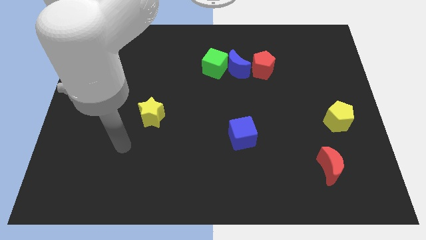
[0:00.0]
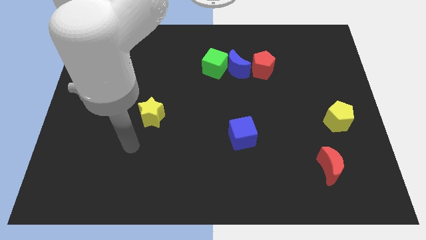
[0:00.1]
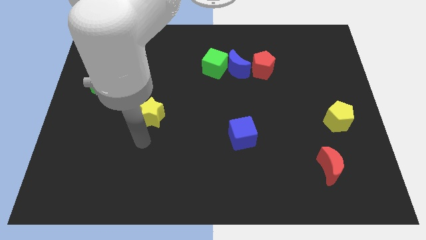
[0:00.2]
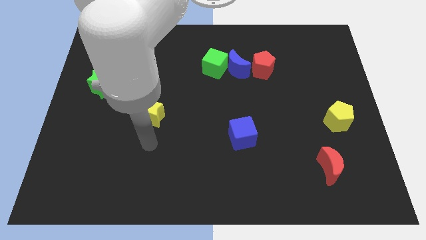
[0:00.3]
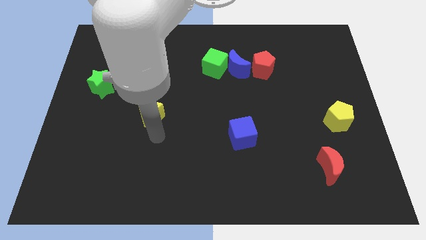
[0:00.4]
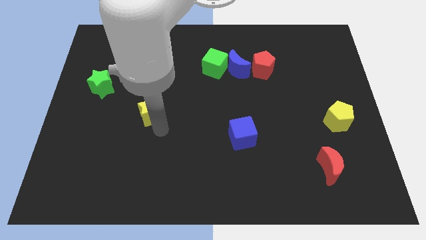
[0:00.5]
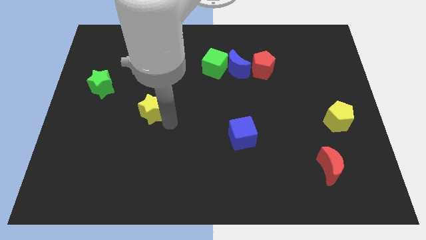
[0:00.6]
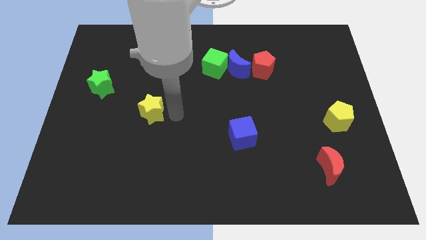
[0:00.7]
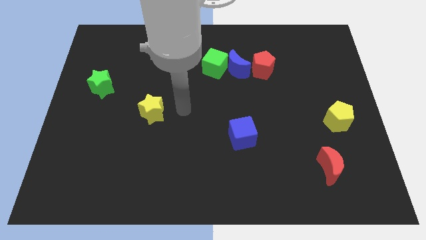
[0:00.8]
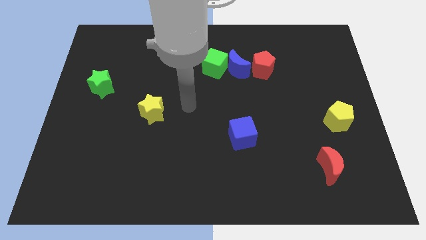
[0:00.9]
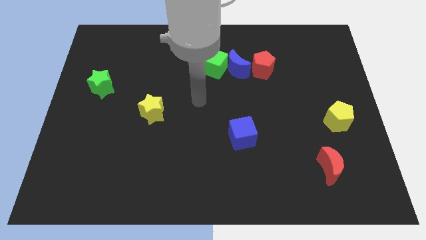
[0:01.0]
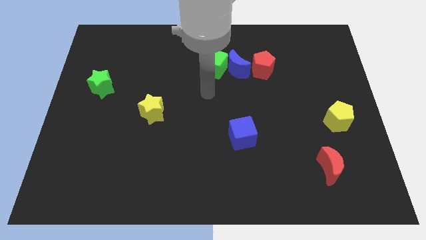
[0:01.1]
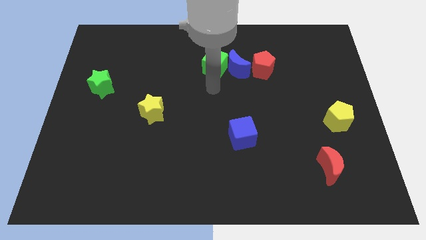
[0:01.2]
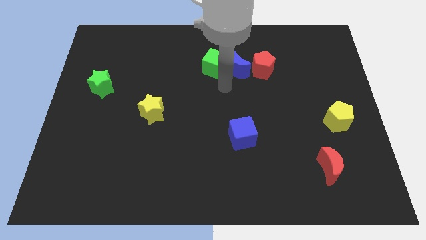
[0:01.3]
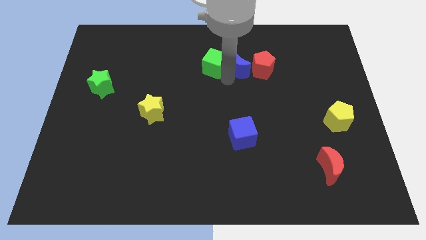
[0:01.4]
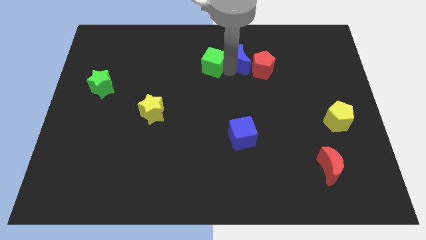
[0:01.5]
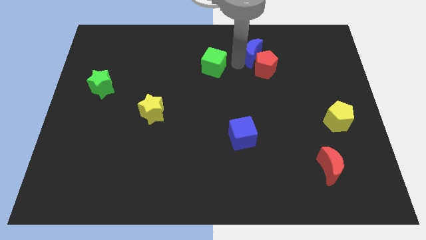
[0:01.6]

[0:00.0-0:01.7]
separate the green cube from the blue moon

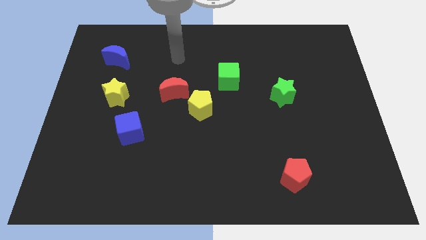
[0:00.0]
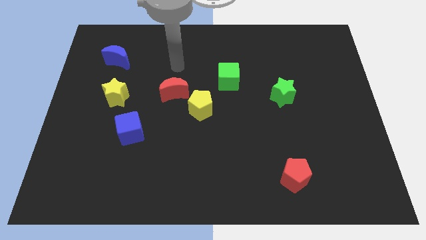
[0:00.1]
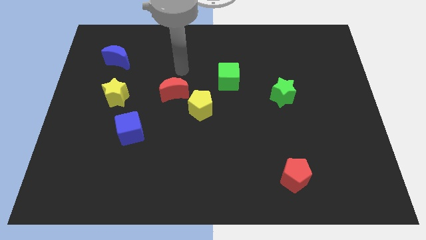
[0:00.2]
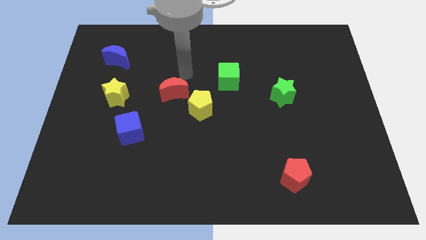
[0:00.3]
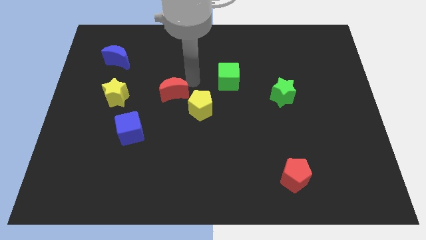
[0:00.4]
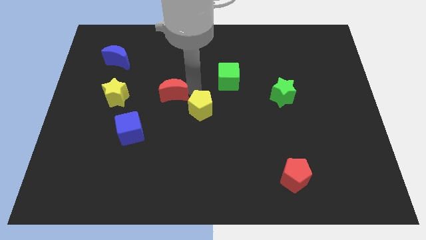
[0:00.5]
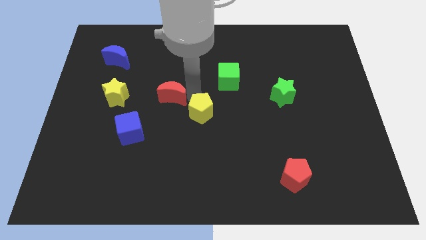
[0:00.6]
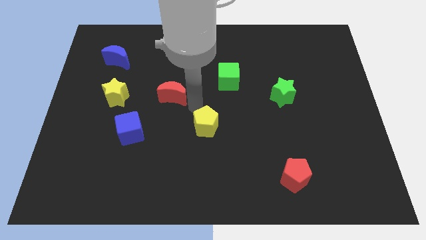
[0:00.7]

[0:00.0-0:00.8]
move the red moon away from the yellow pentagon

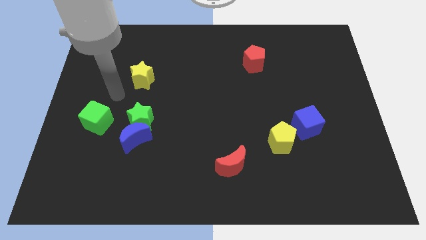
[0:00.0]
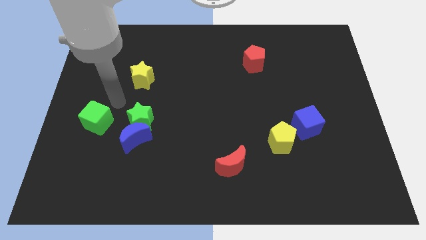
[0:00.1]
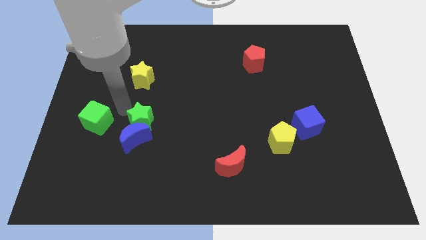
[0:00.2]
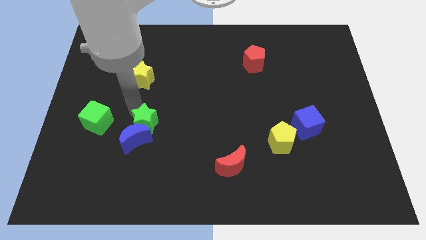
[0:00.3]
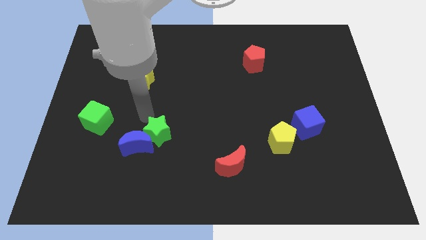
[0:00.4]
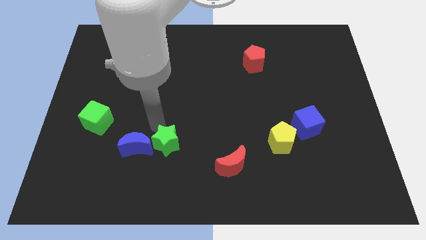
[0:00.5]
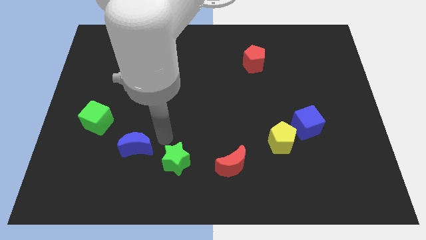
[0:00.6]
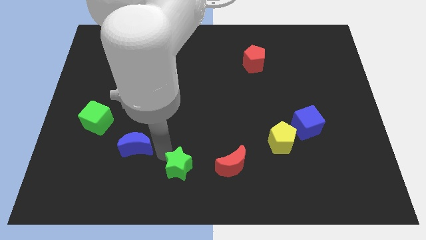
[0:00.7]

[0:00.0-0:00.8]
separate the blue moon from the green star

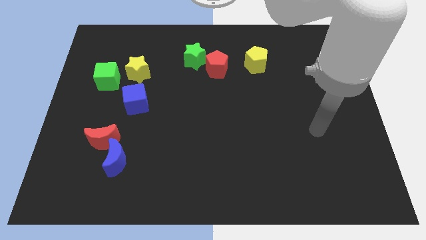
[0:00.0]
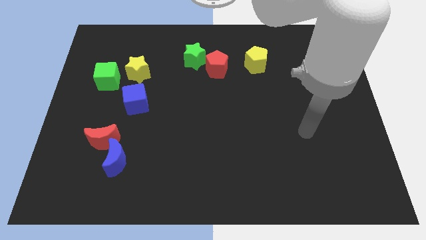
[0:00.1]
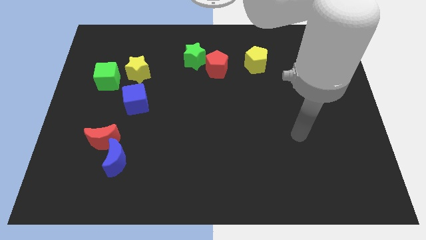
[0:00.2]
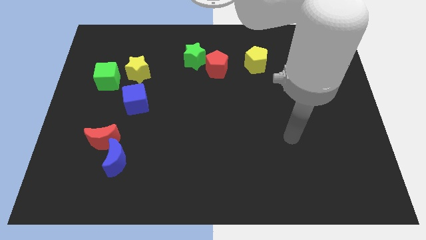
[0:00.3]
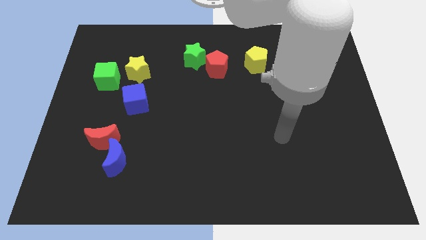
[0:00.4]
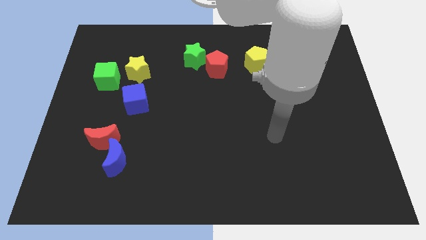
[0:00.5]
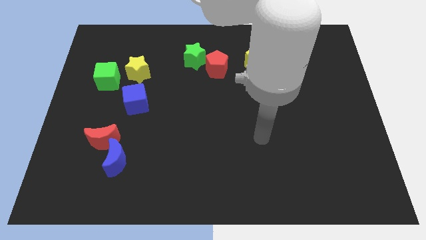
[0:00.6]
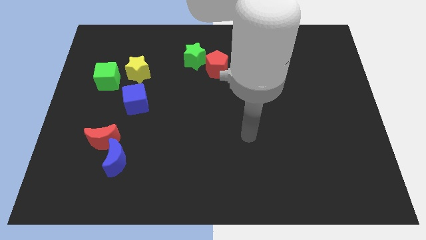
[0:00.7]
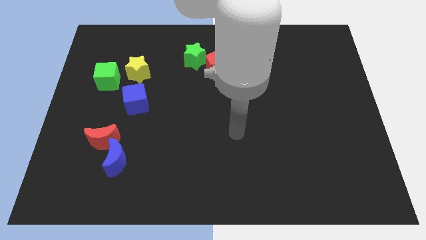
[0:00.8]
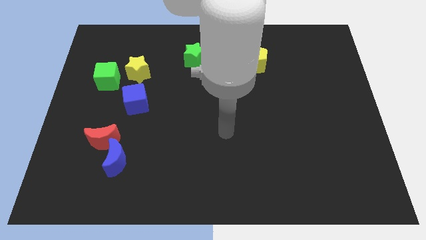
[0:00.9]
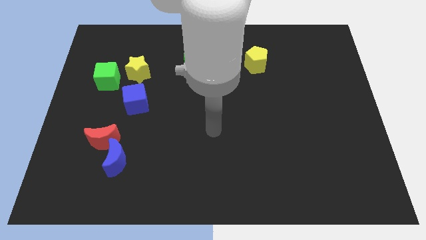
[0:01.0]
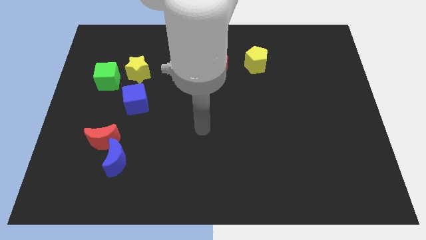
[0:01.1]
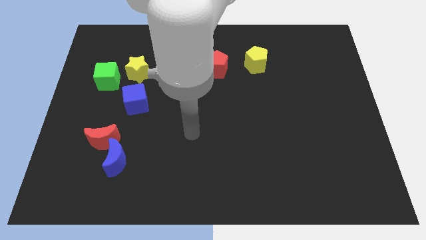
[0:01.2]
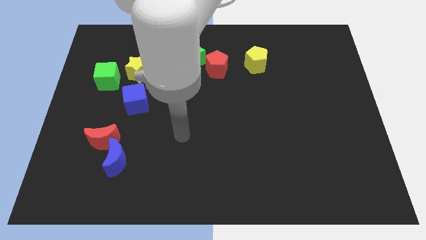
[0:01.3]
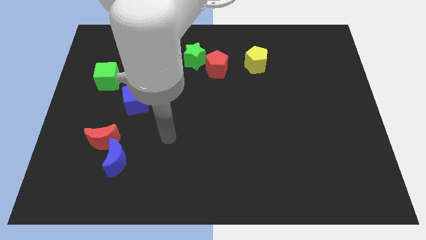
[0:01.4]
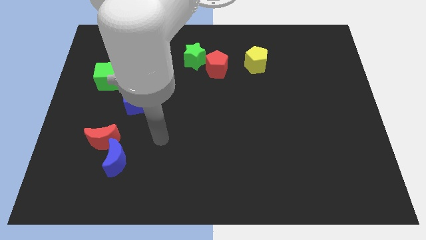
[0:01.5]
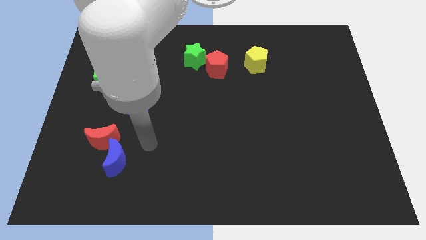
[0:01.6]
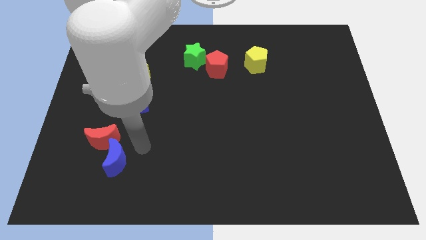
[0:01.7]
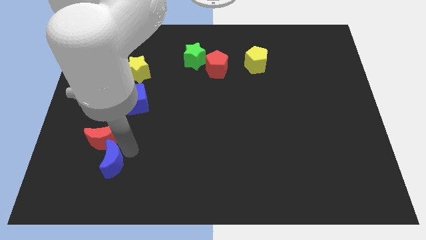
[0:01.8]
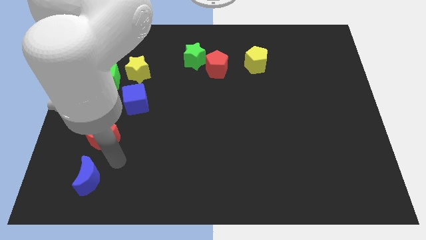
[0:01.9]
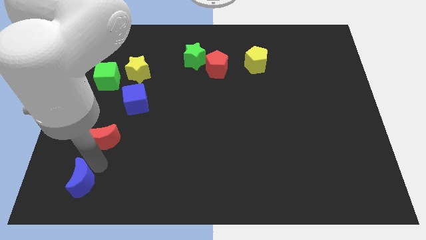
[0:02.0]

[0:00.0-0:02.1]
move the red moon away from the blue moon

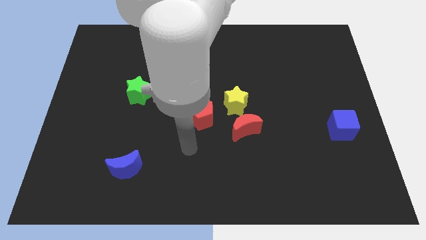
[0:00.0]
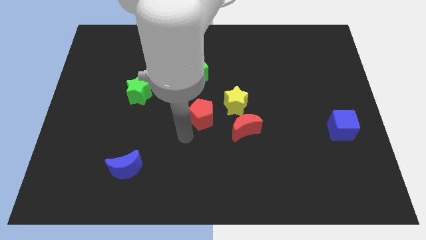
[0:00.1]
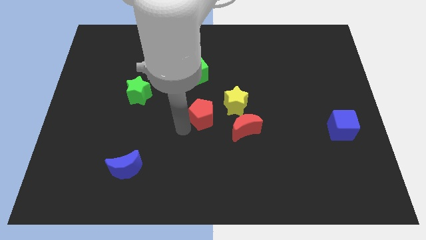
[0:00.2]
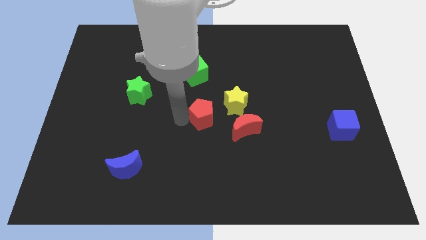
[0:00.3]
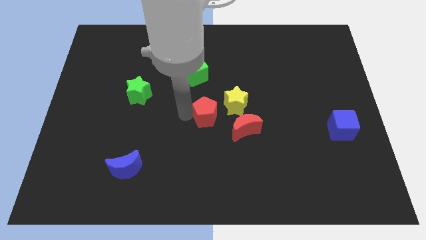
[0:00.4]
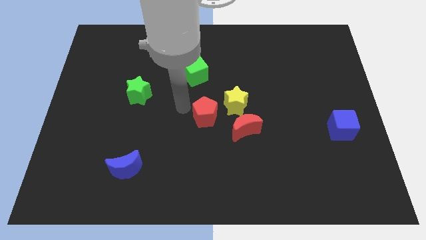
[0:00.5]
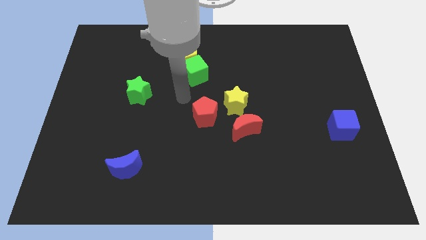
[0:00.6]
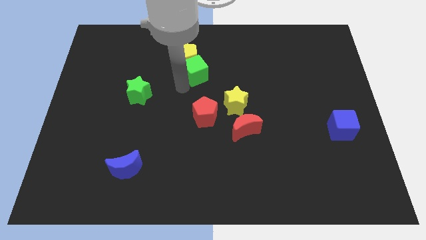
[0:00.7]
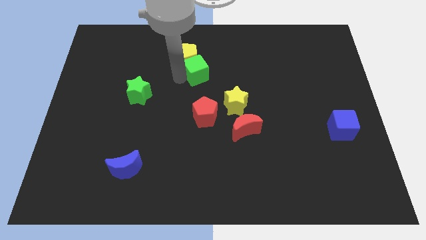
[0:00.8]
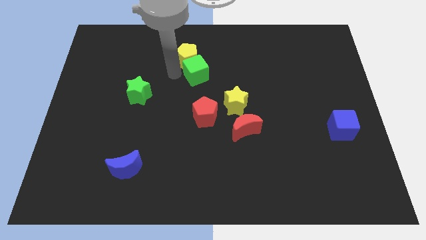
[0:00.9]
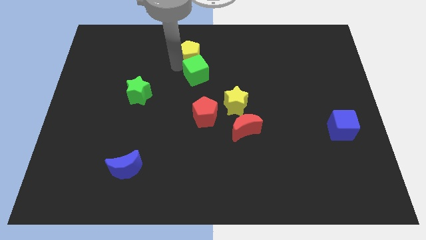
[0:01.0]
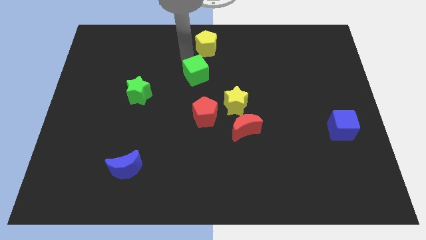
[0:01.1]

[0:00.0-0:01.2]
pull the green cube apart from the yellow pentagon

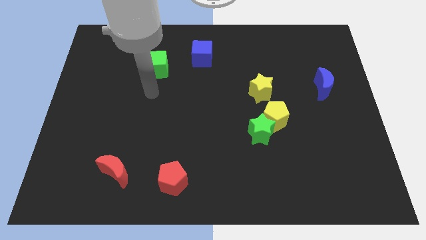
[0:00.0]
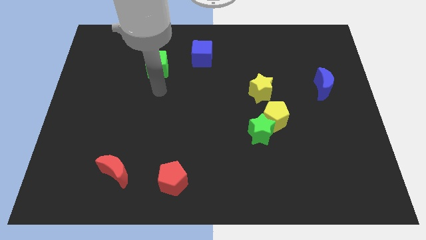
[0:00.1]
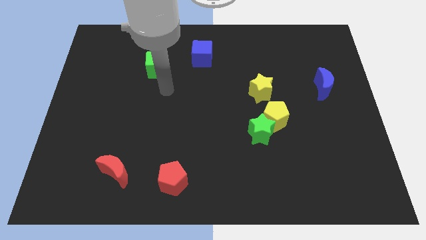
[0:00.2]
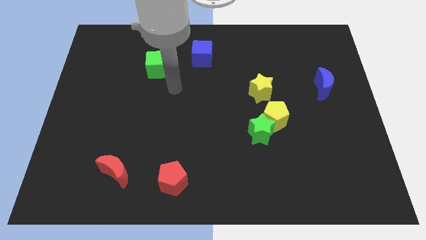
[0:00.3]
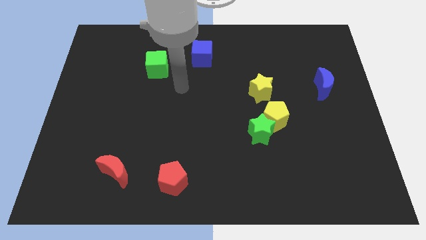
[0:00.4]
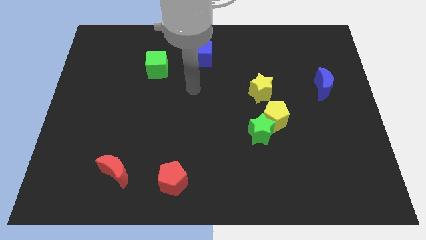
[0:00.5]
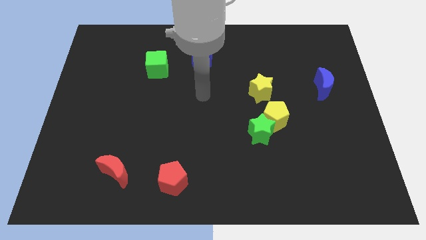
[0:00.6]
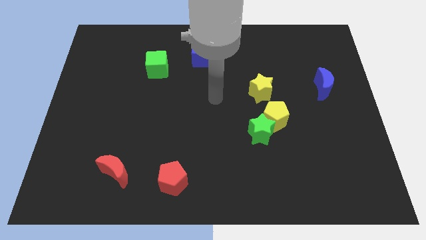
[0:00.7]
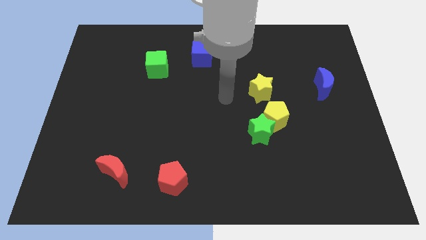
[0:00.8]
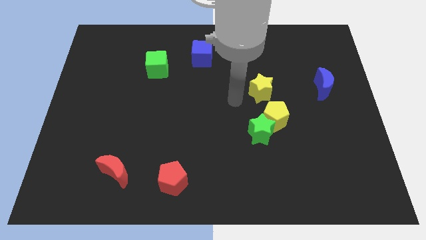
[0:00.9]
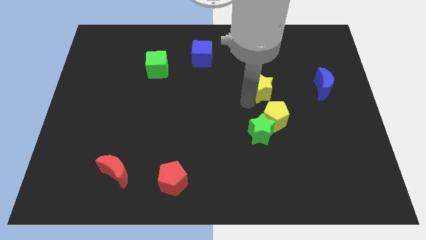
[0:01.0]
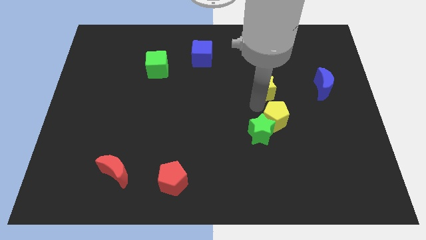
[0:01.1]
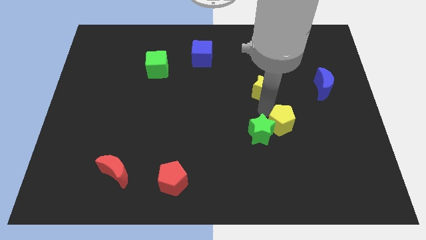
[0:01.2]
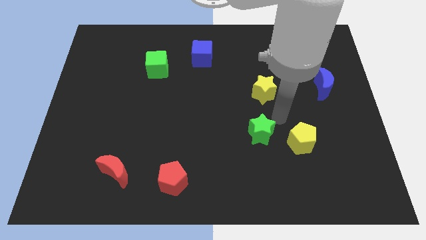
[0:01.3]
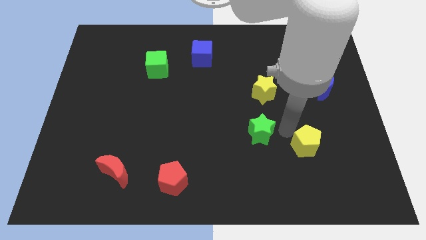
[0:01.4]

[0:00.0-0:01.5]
move the green star away from the yellow pentagon

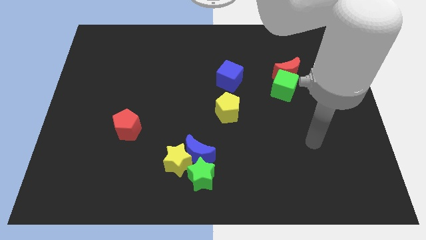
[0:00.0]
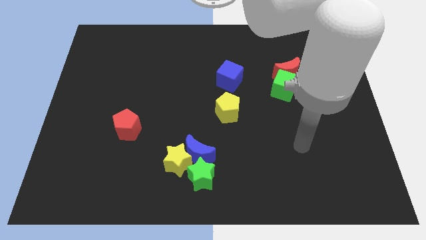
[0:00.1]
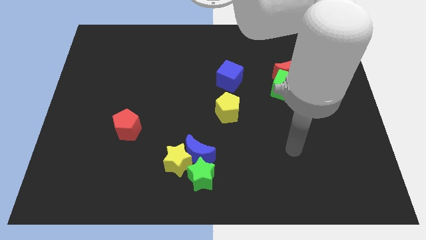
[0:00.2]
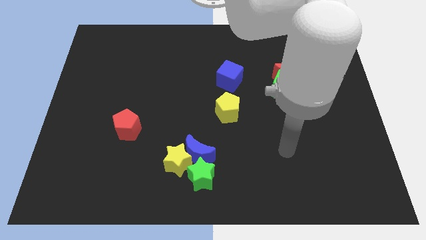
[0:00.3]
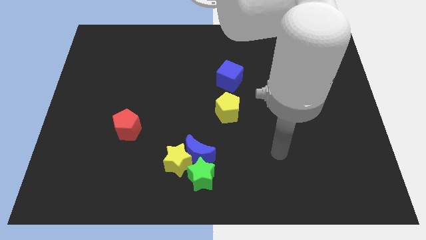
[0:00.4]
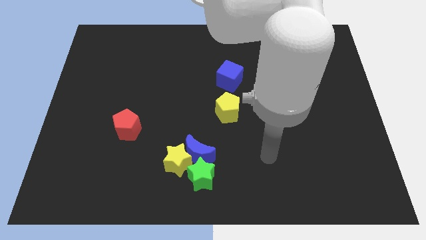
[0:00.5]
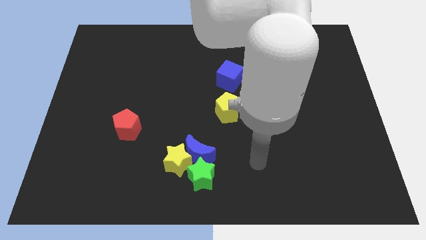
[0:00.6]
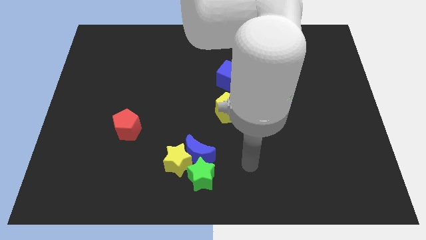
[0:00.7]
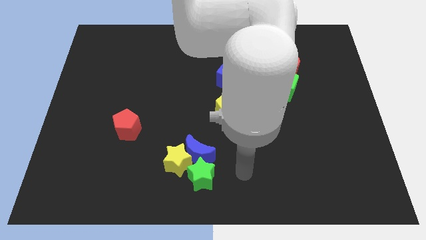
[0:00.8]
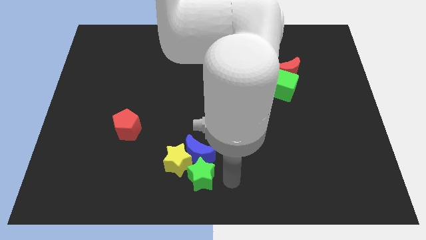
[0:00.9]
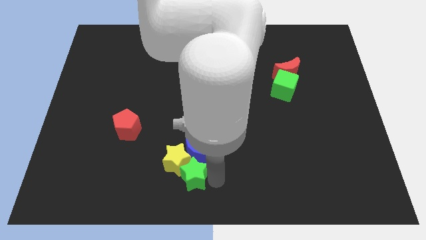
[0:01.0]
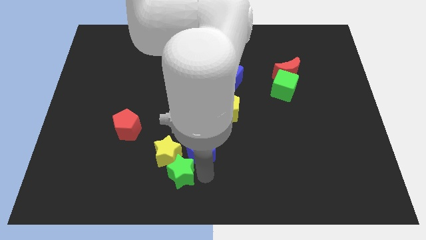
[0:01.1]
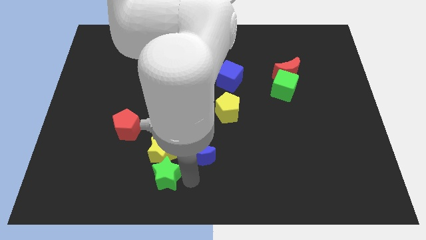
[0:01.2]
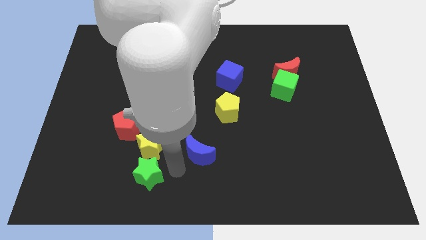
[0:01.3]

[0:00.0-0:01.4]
move the blue moon away from the yellow star and green star
